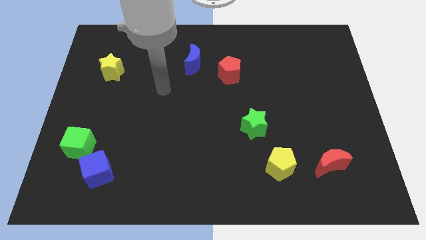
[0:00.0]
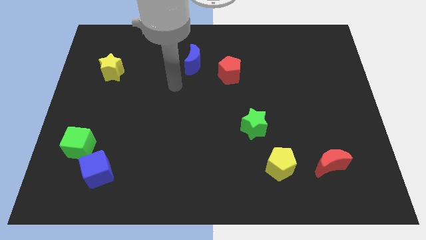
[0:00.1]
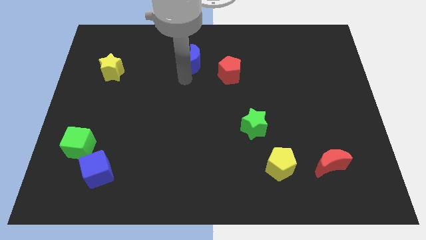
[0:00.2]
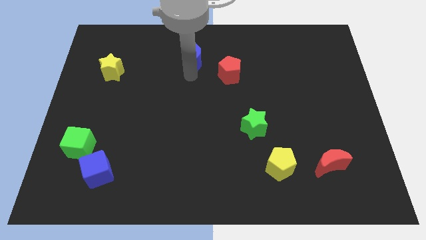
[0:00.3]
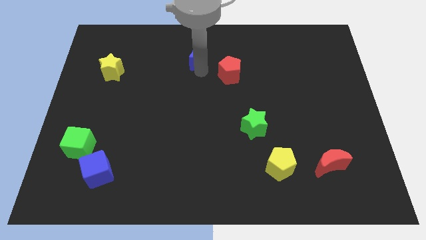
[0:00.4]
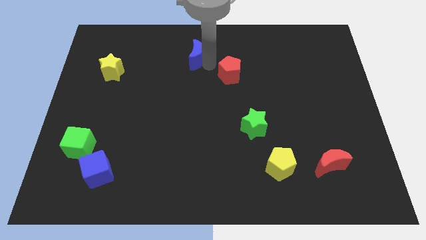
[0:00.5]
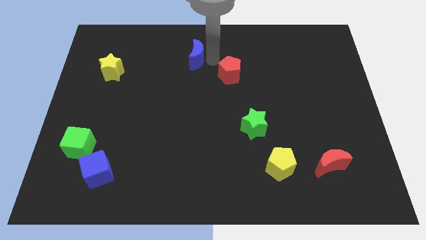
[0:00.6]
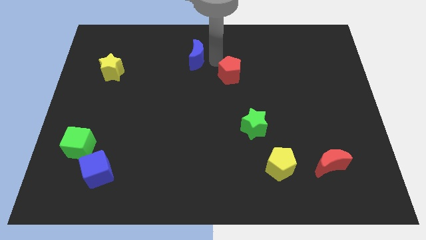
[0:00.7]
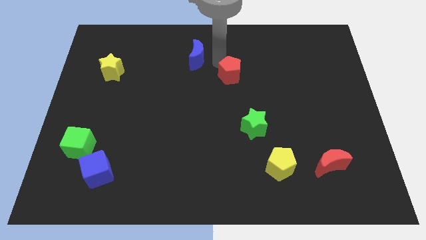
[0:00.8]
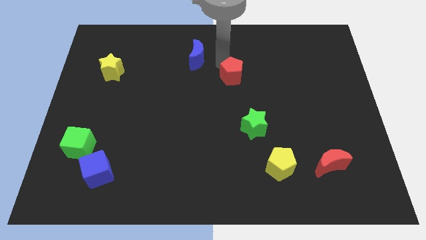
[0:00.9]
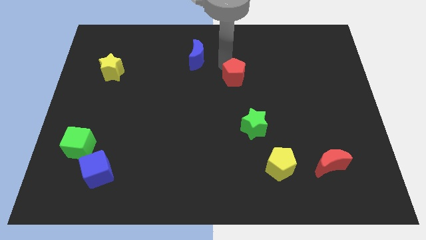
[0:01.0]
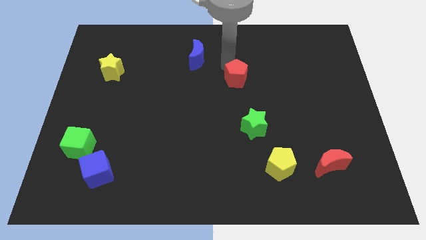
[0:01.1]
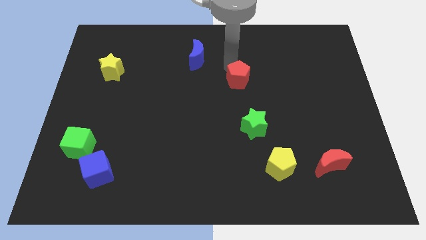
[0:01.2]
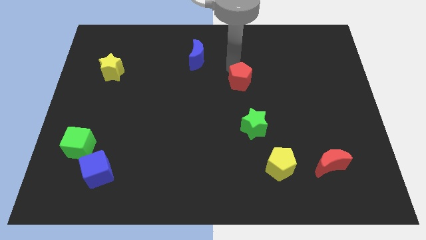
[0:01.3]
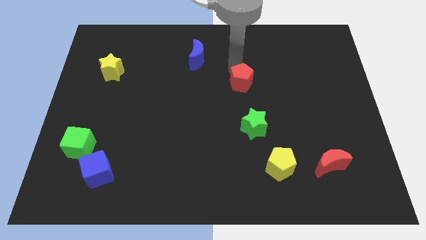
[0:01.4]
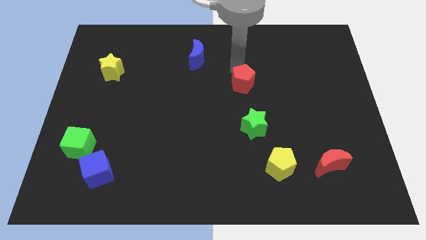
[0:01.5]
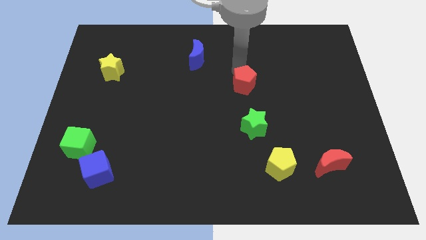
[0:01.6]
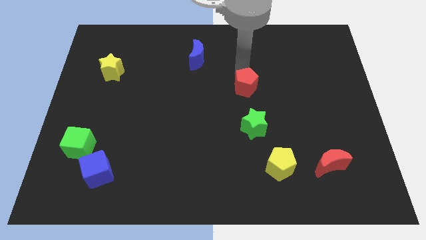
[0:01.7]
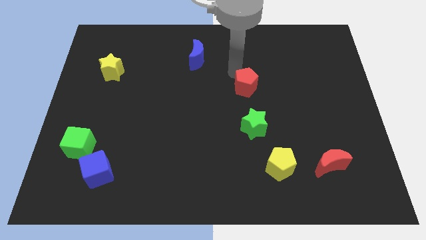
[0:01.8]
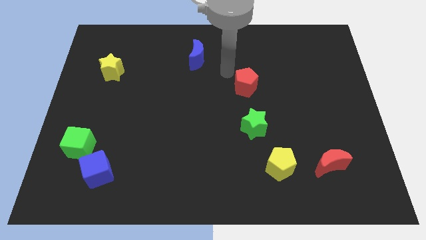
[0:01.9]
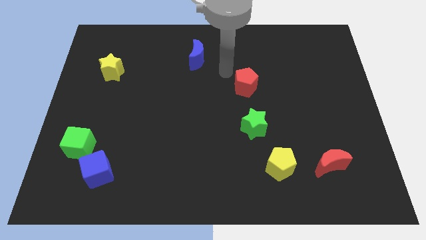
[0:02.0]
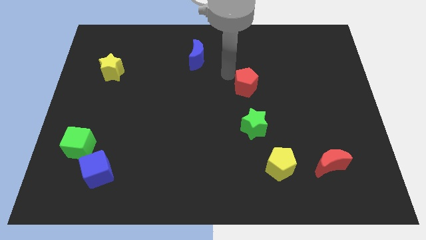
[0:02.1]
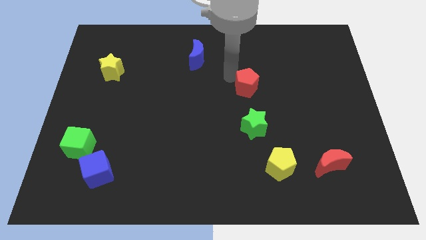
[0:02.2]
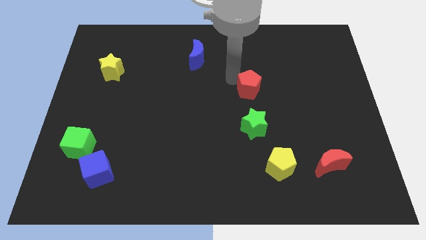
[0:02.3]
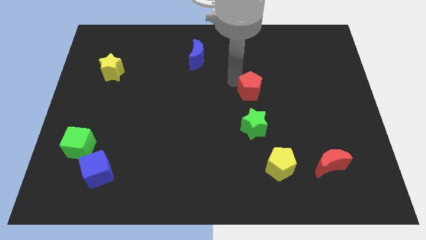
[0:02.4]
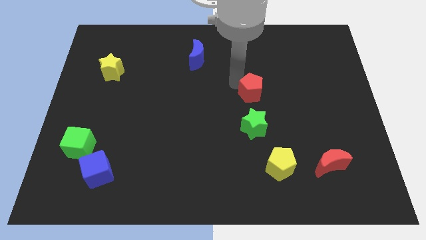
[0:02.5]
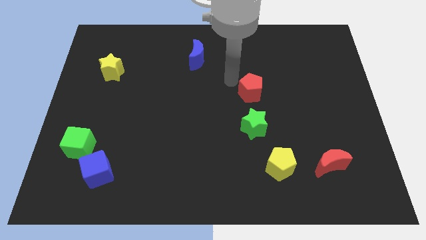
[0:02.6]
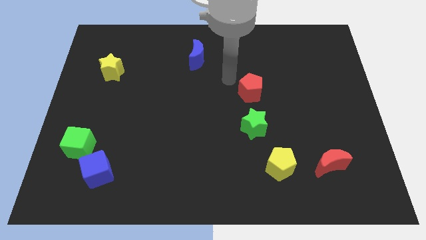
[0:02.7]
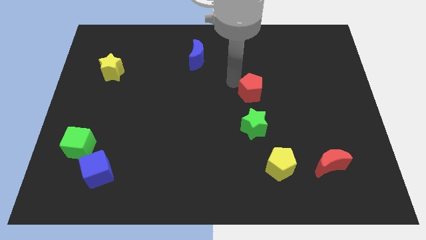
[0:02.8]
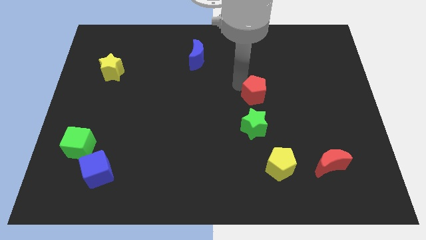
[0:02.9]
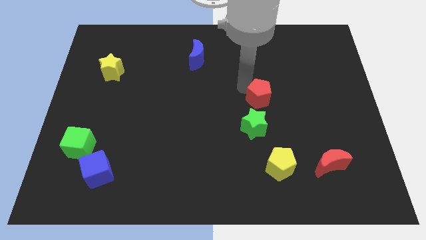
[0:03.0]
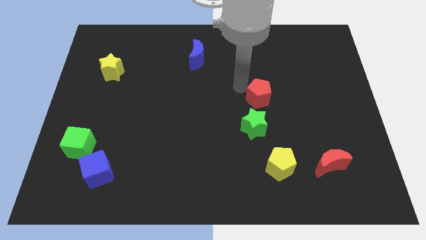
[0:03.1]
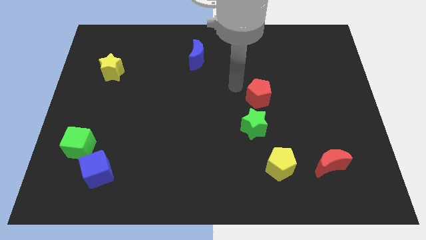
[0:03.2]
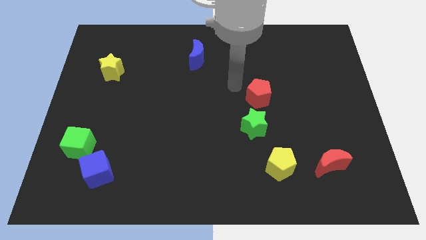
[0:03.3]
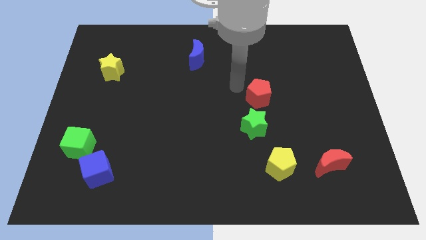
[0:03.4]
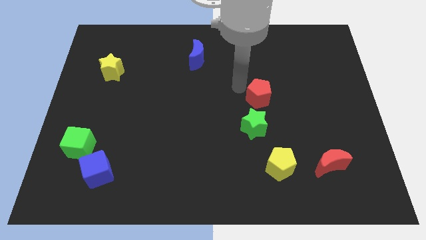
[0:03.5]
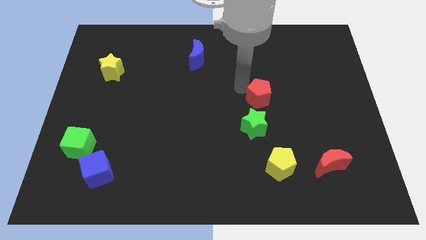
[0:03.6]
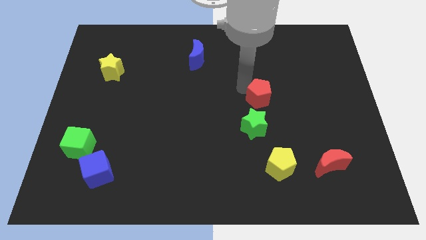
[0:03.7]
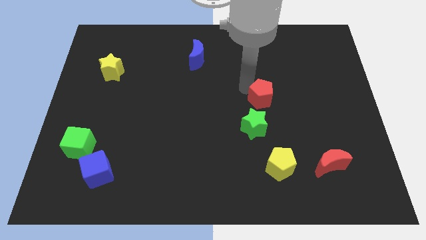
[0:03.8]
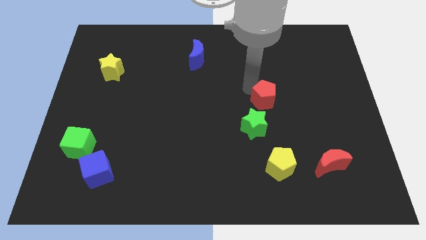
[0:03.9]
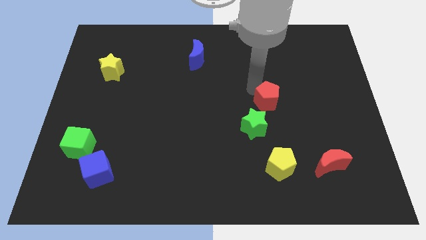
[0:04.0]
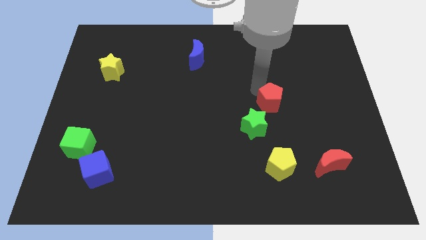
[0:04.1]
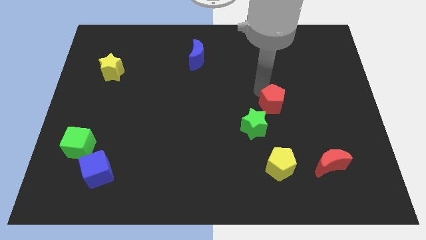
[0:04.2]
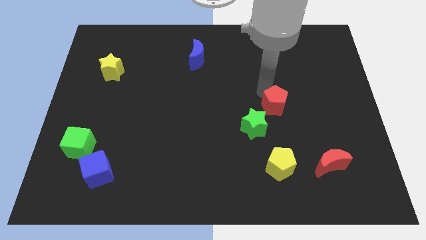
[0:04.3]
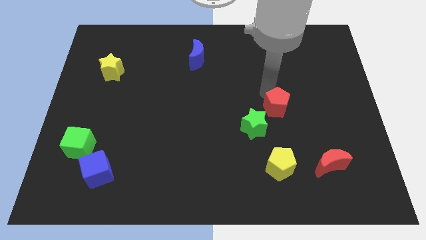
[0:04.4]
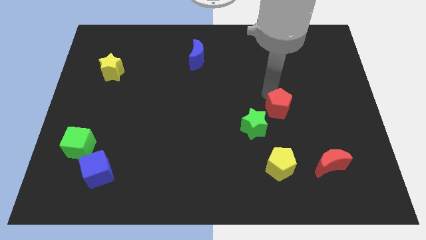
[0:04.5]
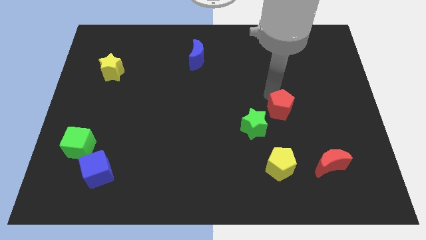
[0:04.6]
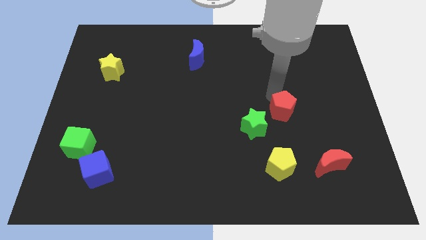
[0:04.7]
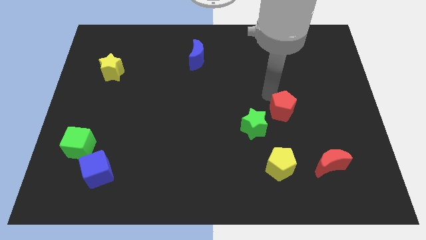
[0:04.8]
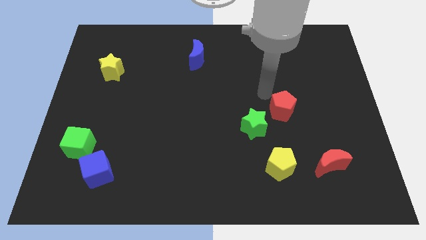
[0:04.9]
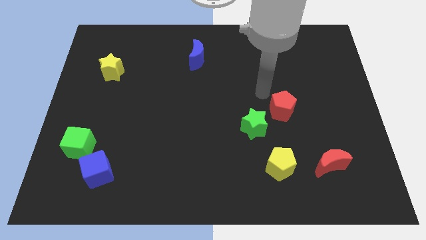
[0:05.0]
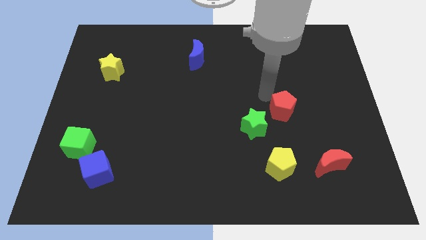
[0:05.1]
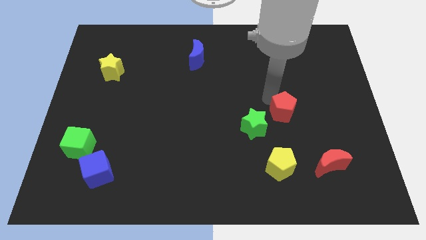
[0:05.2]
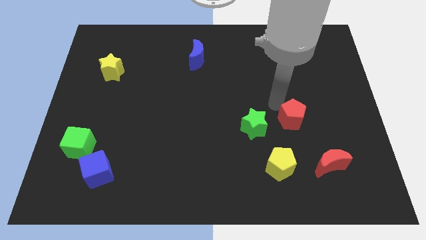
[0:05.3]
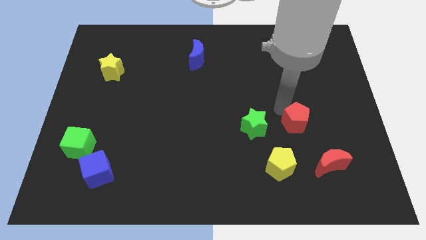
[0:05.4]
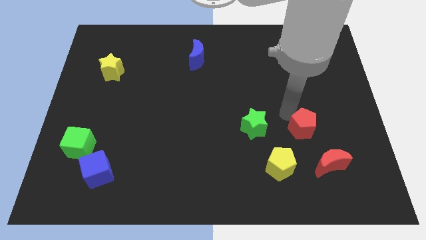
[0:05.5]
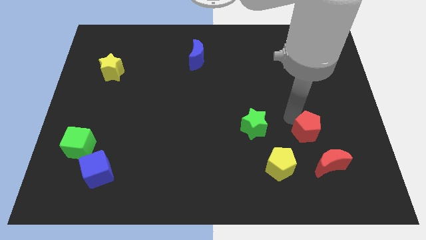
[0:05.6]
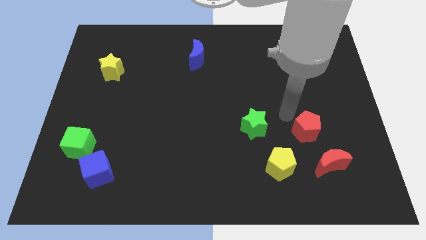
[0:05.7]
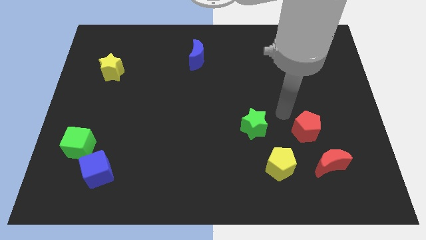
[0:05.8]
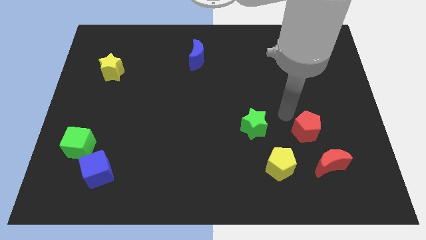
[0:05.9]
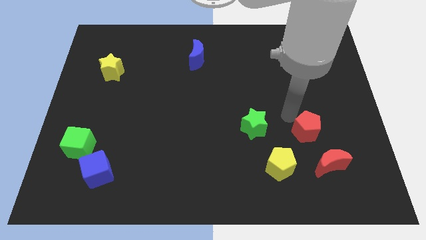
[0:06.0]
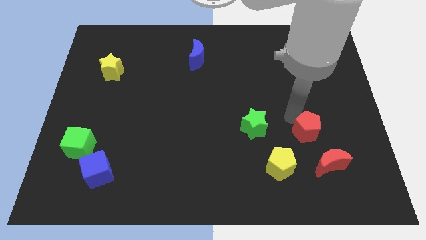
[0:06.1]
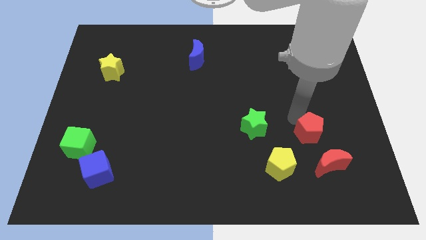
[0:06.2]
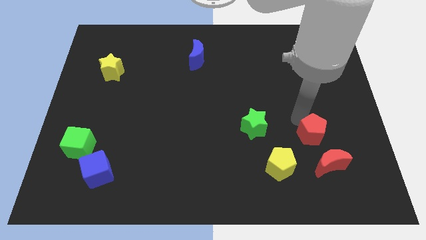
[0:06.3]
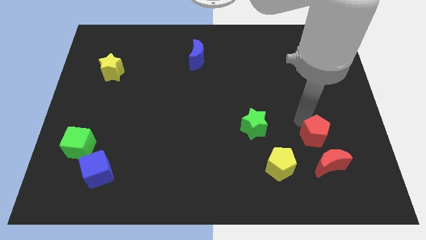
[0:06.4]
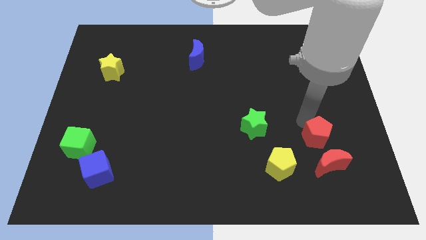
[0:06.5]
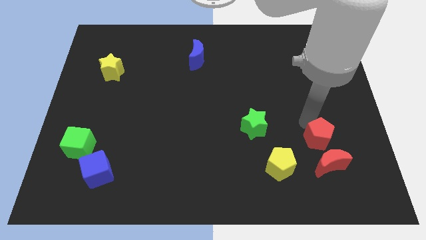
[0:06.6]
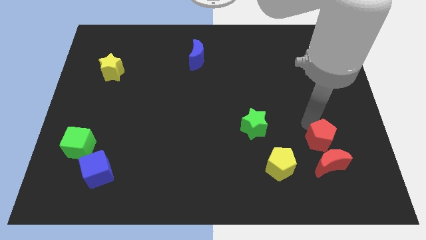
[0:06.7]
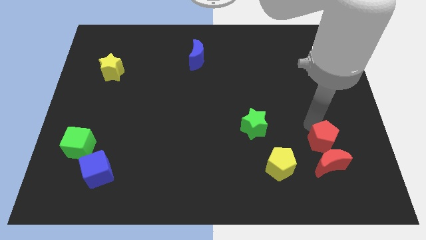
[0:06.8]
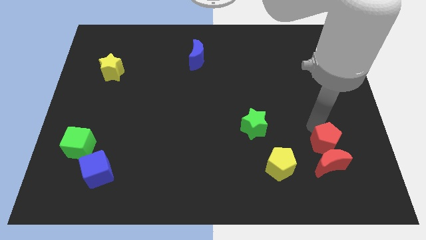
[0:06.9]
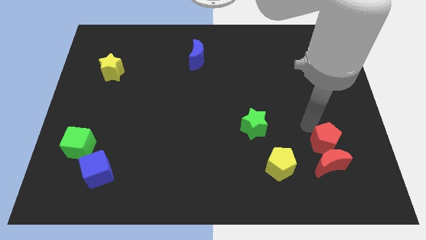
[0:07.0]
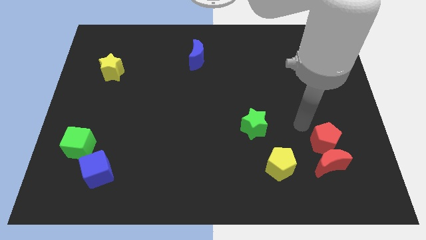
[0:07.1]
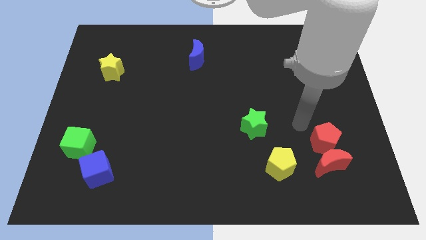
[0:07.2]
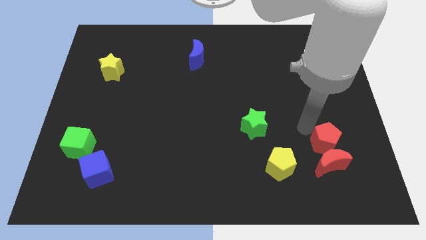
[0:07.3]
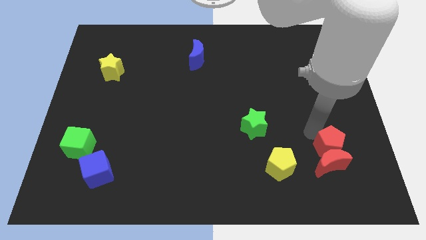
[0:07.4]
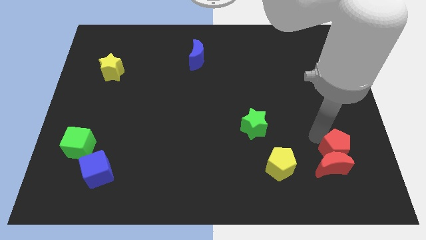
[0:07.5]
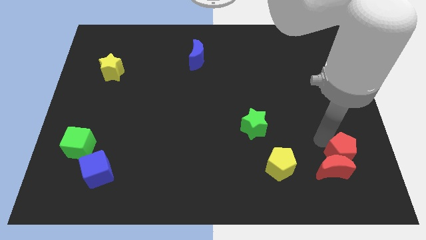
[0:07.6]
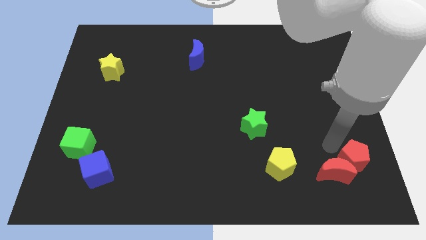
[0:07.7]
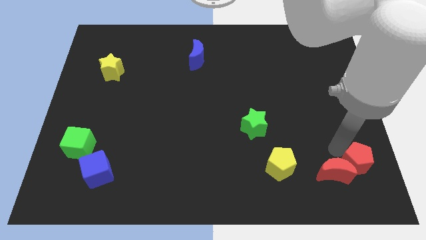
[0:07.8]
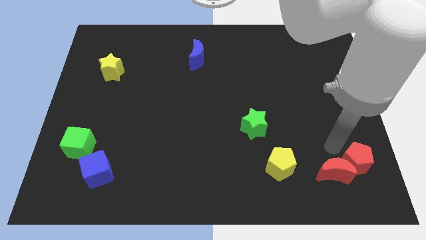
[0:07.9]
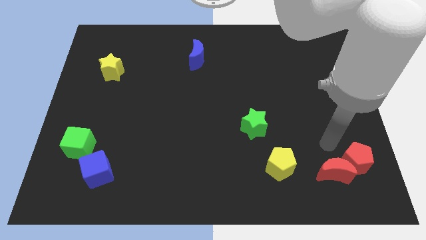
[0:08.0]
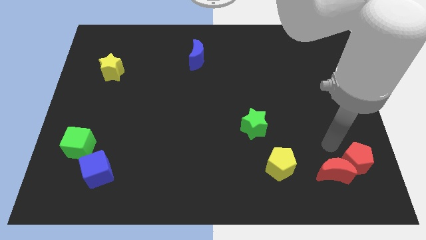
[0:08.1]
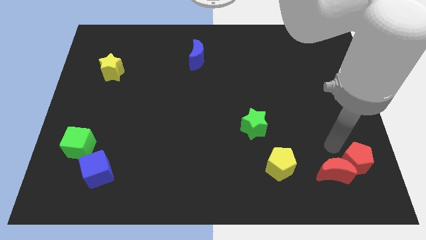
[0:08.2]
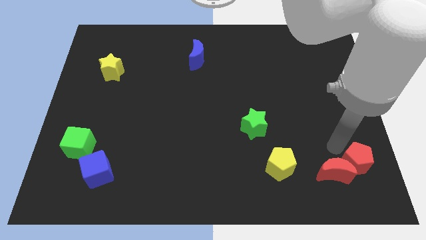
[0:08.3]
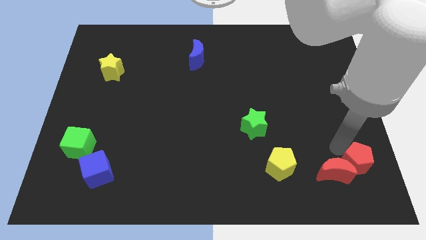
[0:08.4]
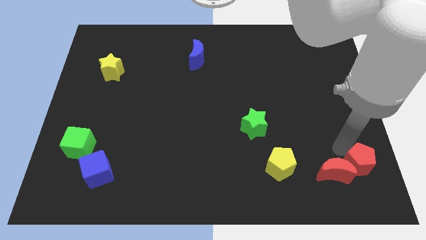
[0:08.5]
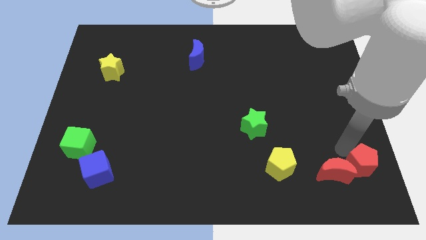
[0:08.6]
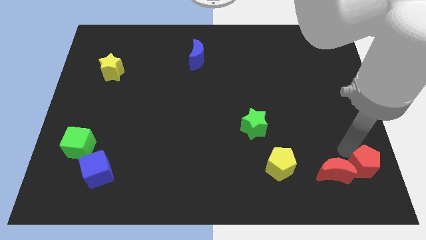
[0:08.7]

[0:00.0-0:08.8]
put the red pentagon to the bottom right
